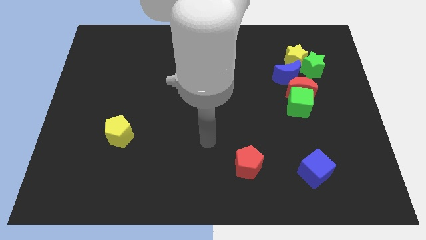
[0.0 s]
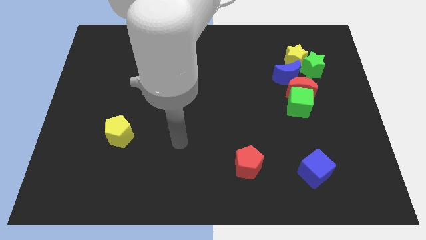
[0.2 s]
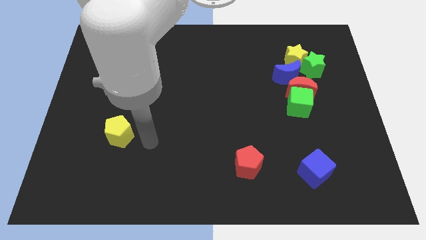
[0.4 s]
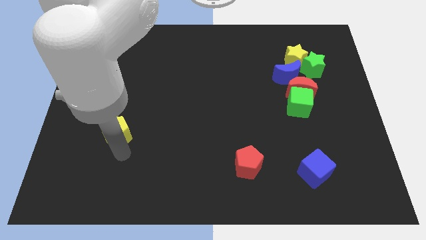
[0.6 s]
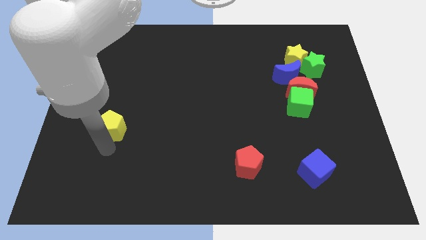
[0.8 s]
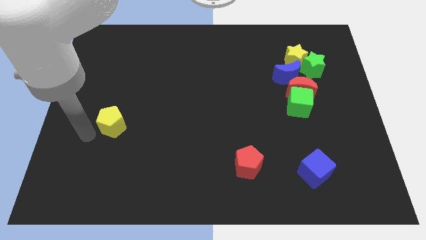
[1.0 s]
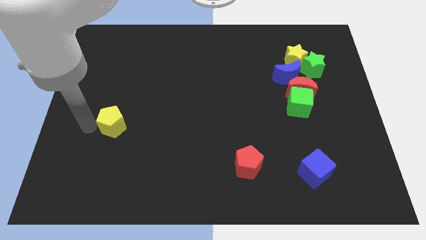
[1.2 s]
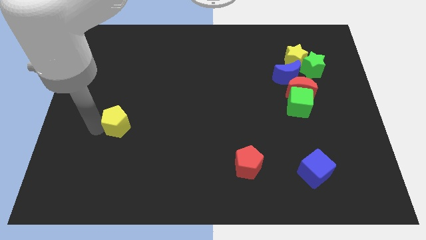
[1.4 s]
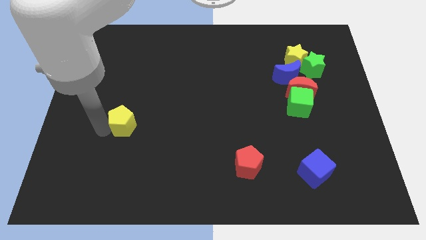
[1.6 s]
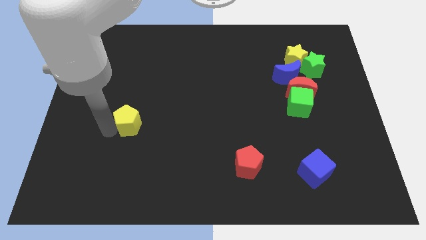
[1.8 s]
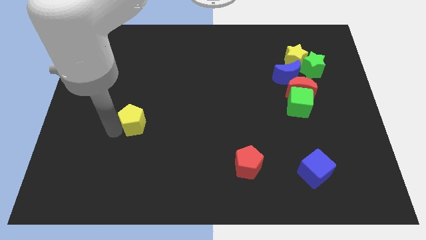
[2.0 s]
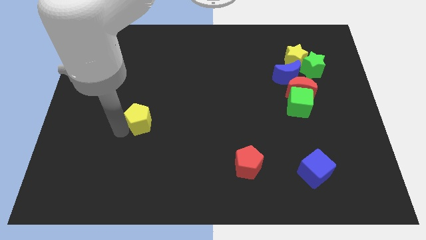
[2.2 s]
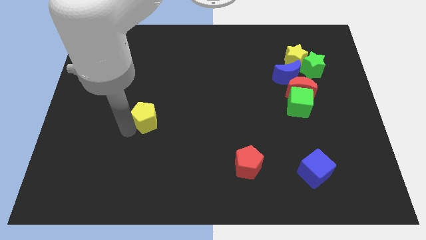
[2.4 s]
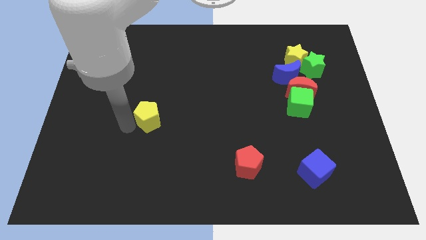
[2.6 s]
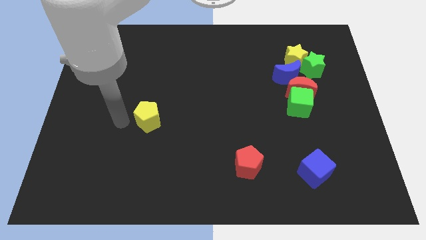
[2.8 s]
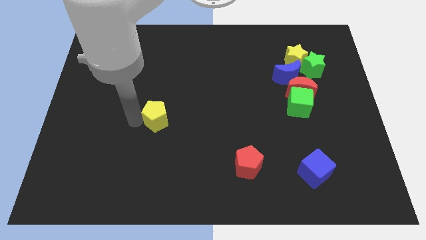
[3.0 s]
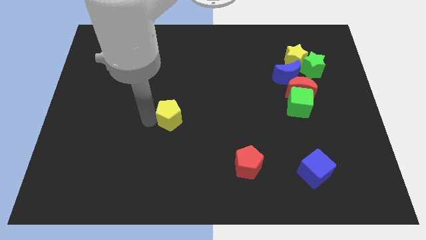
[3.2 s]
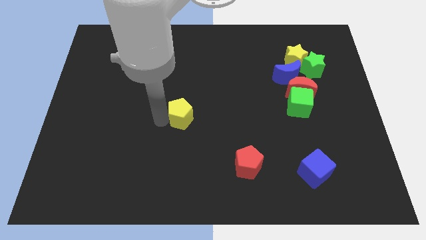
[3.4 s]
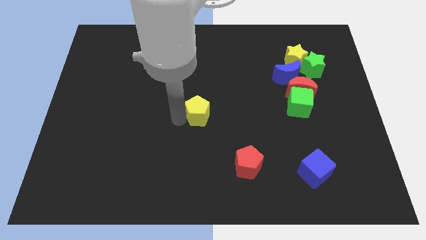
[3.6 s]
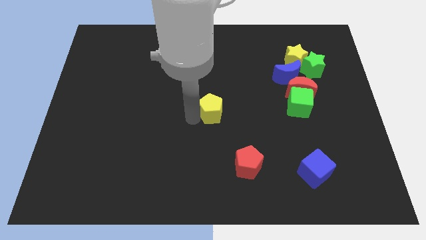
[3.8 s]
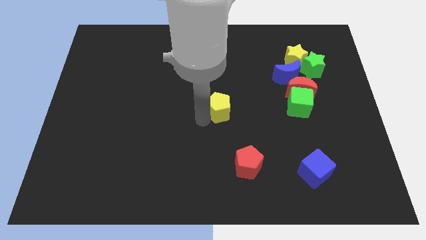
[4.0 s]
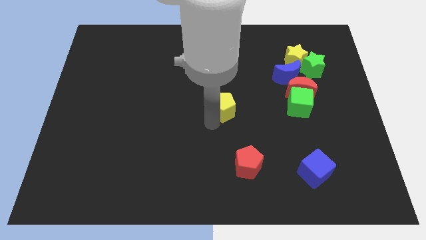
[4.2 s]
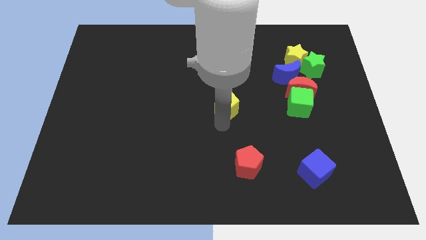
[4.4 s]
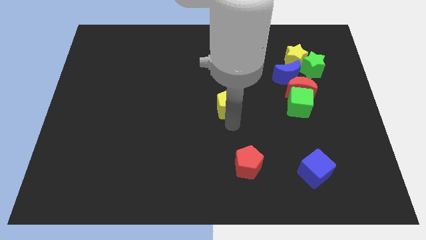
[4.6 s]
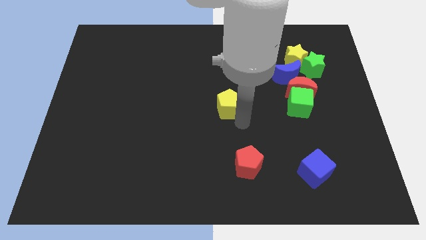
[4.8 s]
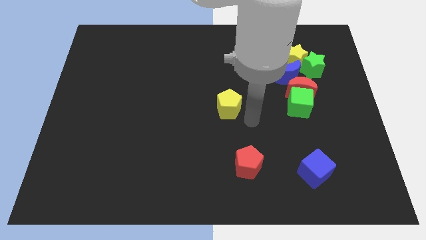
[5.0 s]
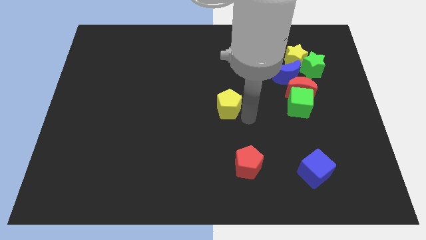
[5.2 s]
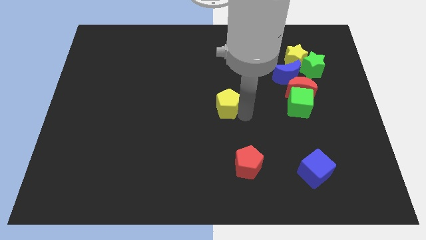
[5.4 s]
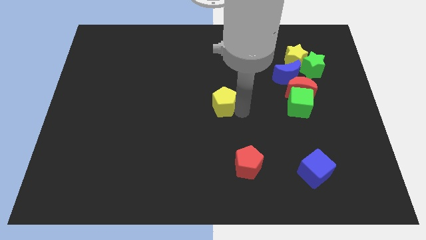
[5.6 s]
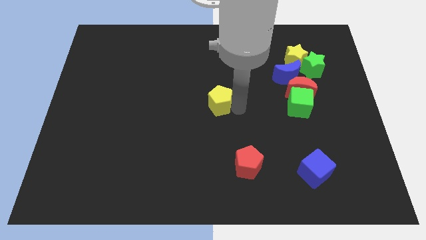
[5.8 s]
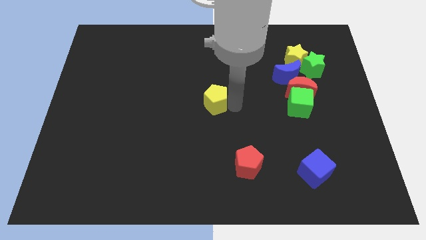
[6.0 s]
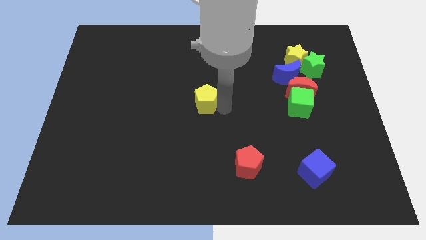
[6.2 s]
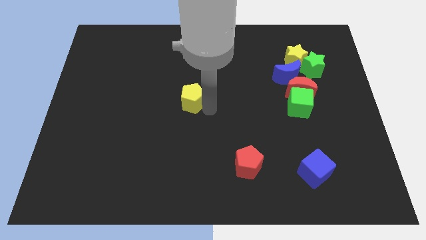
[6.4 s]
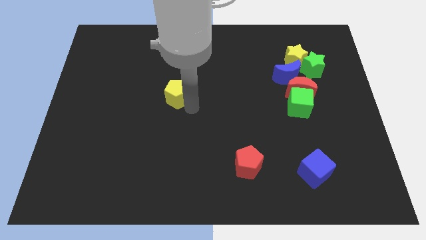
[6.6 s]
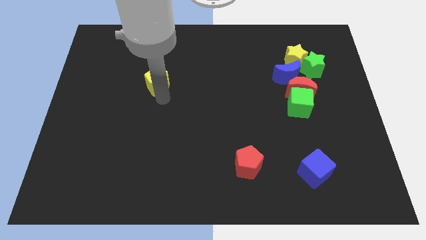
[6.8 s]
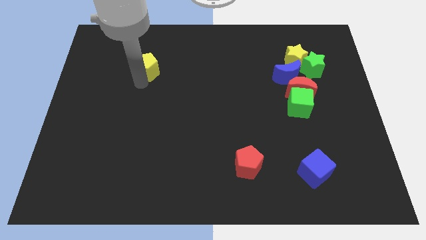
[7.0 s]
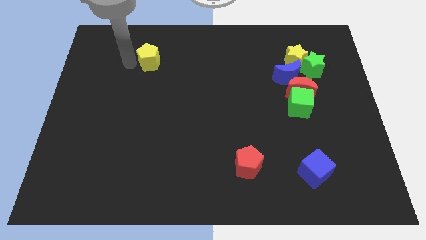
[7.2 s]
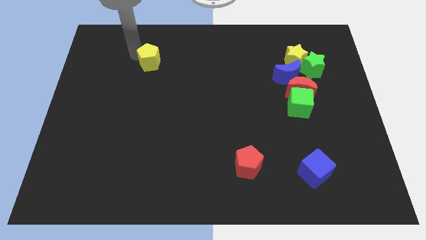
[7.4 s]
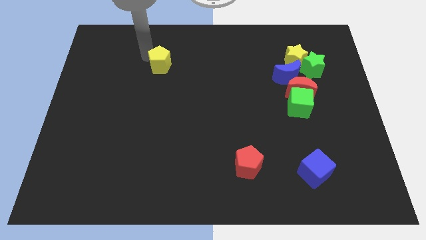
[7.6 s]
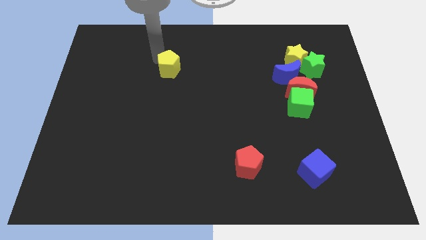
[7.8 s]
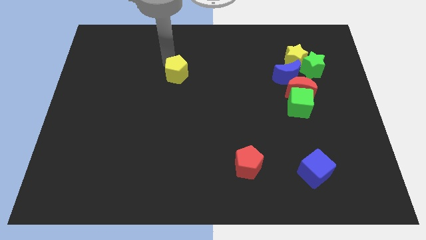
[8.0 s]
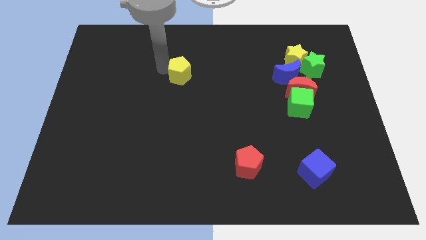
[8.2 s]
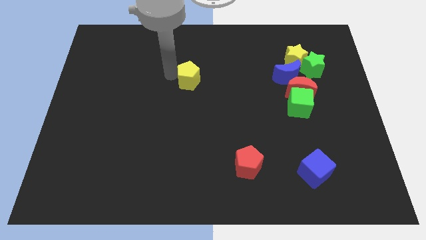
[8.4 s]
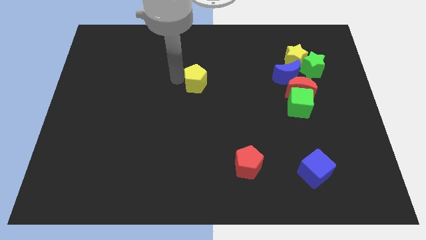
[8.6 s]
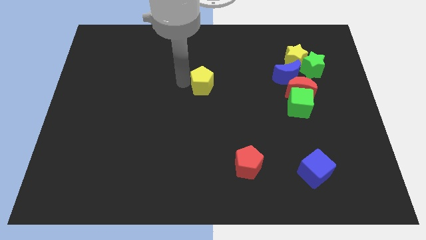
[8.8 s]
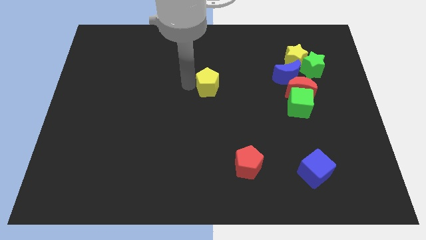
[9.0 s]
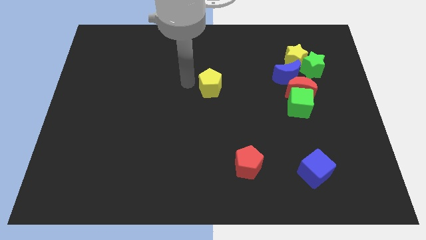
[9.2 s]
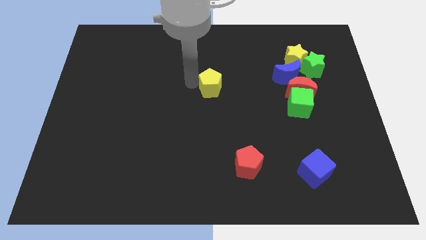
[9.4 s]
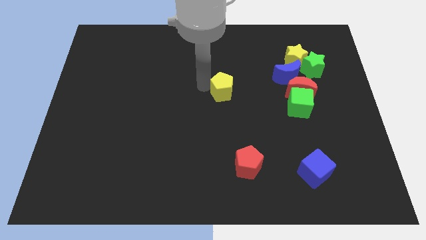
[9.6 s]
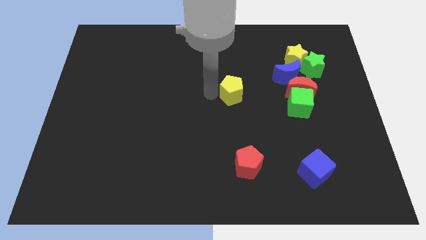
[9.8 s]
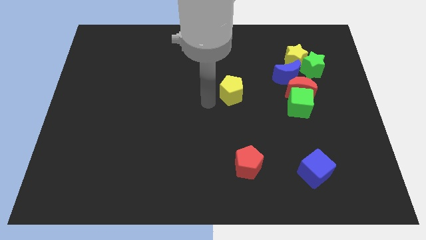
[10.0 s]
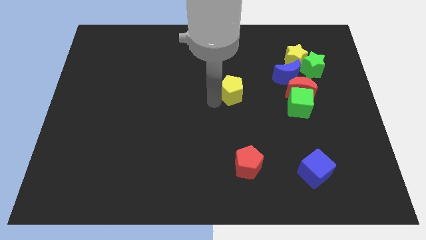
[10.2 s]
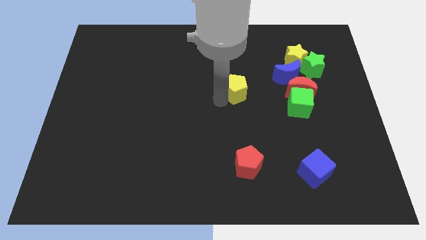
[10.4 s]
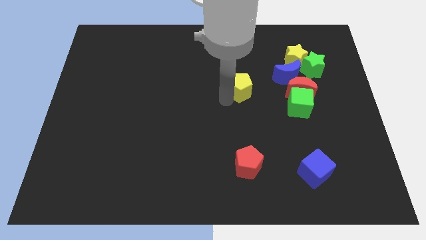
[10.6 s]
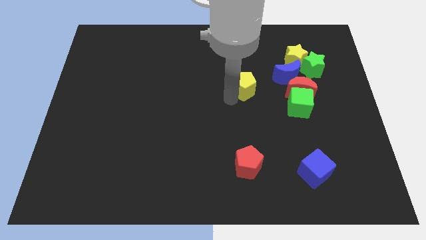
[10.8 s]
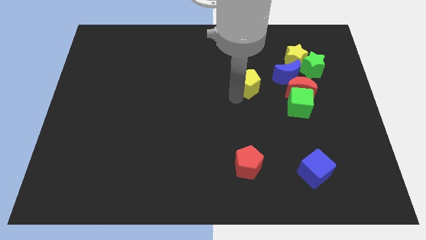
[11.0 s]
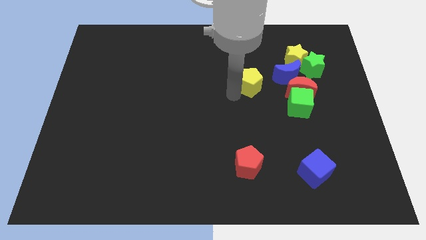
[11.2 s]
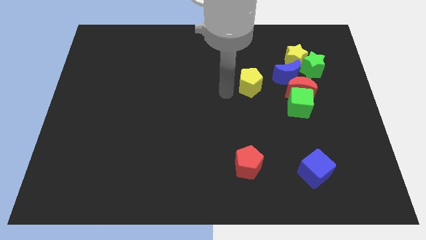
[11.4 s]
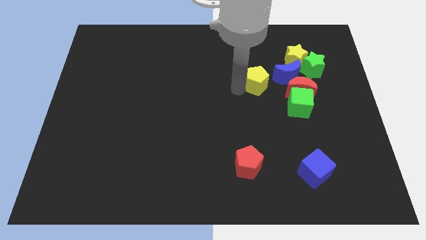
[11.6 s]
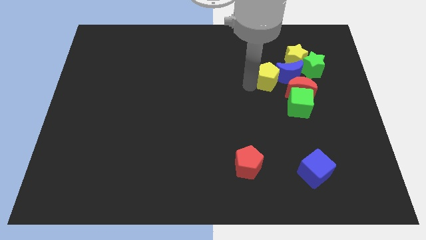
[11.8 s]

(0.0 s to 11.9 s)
move the yellow pentagon to the blue moon

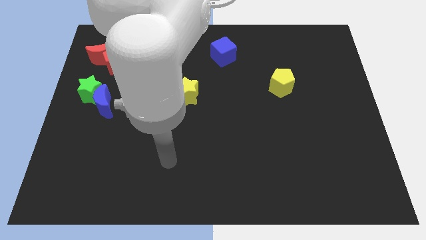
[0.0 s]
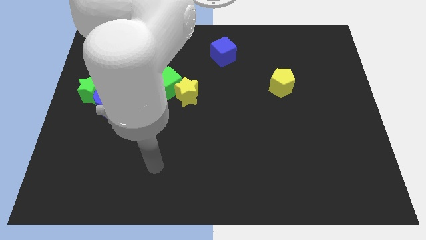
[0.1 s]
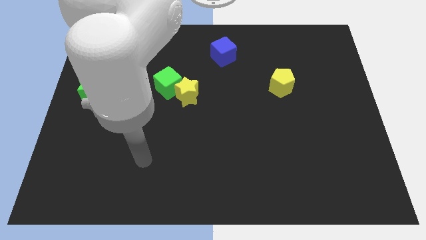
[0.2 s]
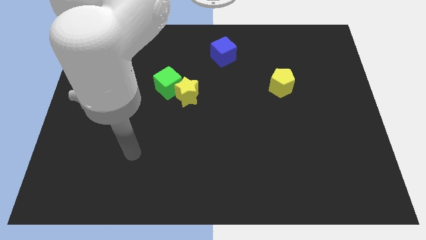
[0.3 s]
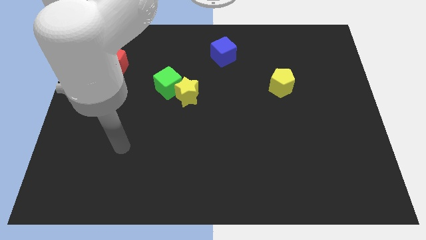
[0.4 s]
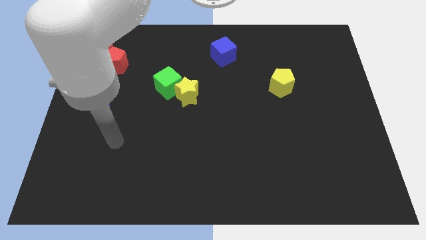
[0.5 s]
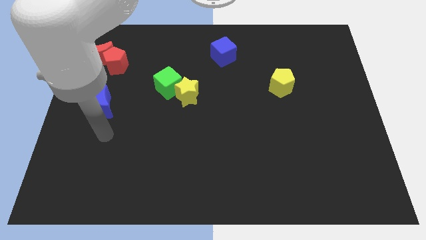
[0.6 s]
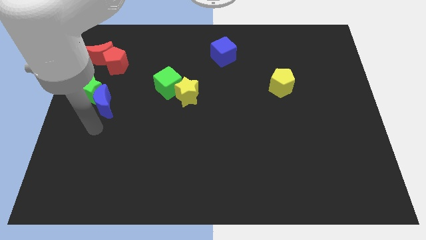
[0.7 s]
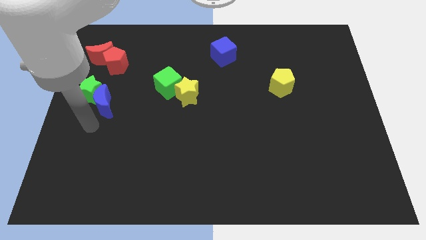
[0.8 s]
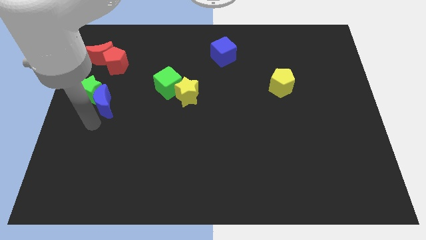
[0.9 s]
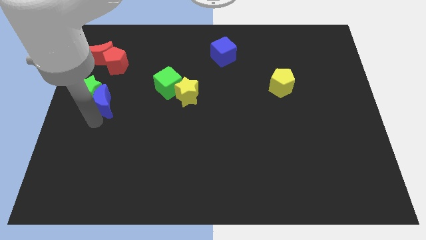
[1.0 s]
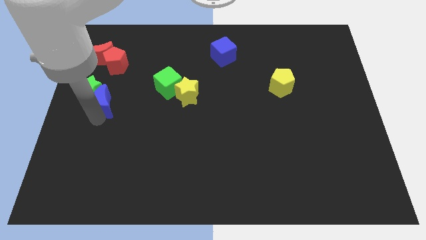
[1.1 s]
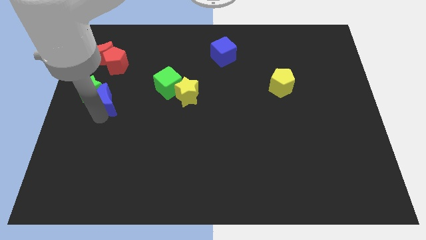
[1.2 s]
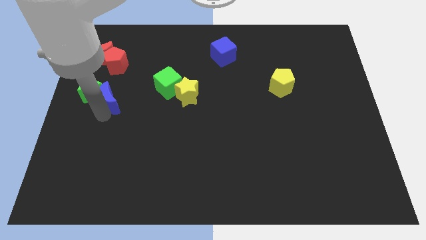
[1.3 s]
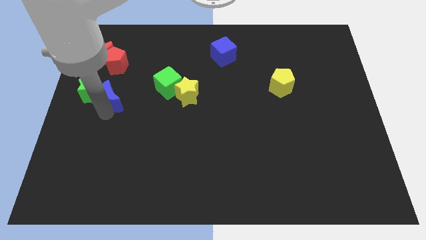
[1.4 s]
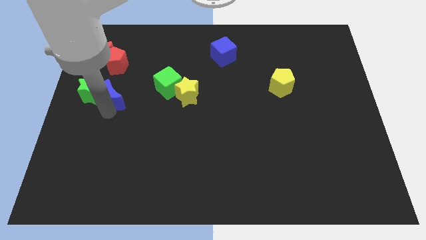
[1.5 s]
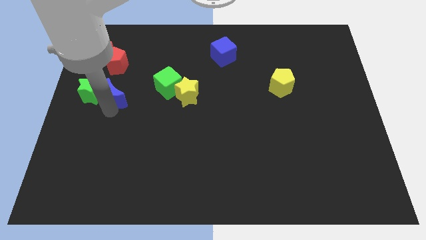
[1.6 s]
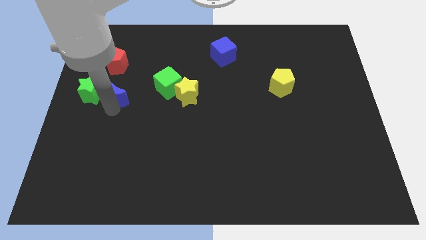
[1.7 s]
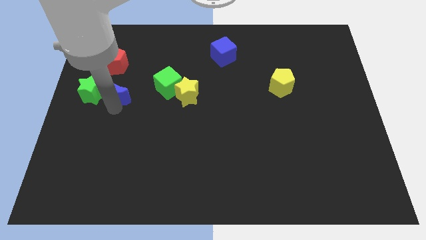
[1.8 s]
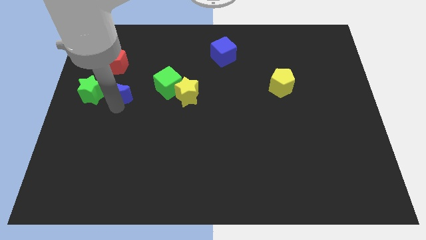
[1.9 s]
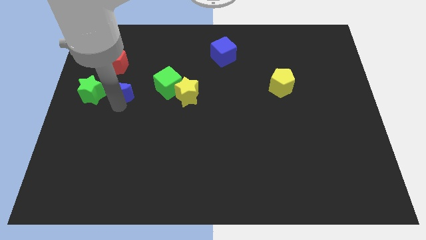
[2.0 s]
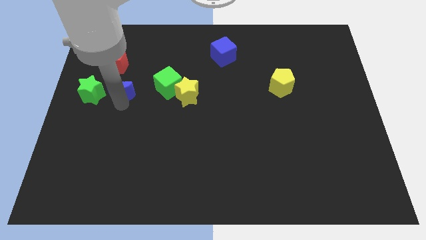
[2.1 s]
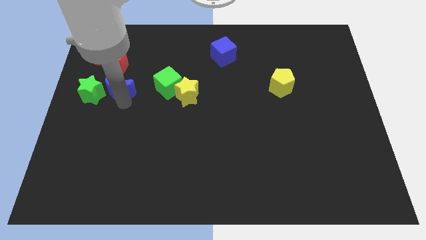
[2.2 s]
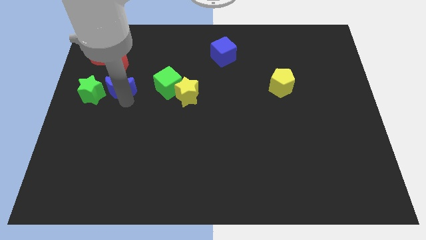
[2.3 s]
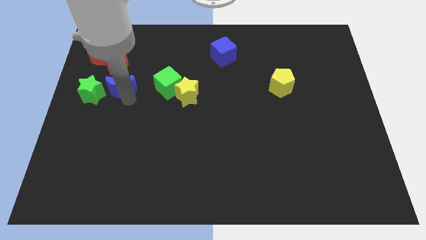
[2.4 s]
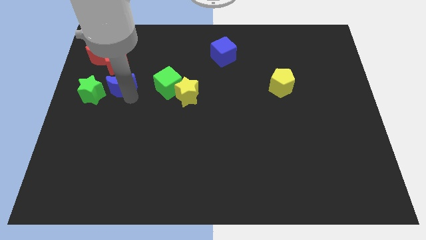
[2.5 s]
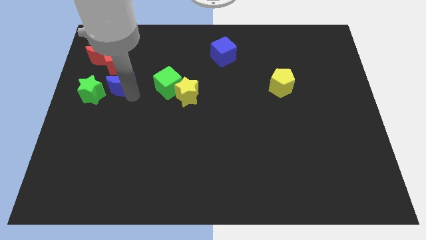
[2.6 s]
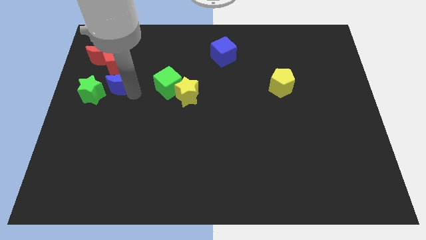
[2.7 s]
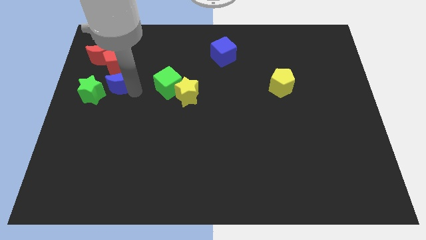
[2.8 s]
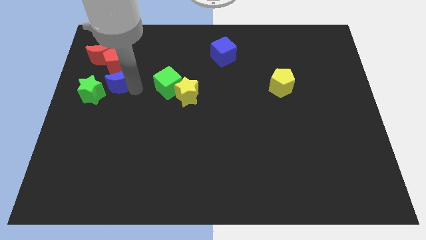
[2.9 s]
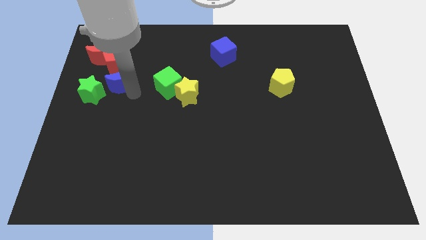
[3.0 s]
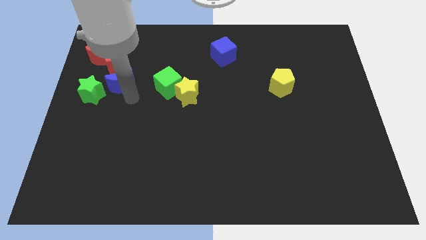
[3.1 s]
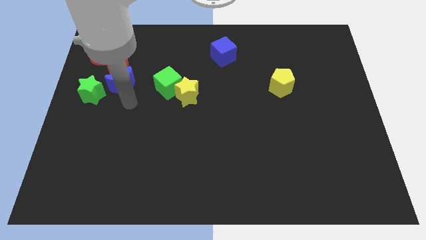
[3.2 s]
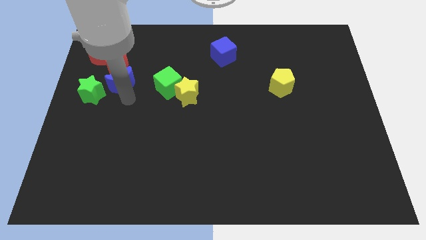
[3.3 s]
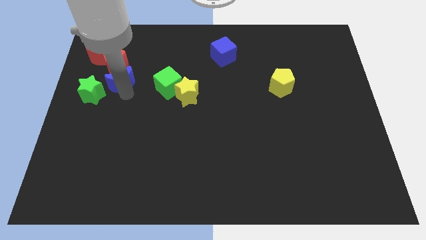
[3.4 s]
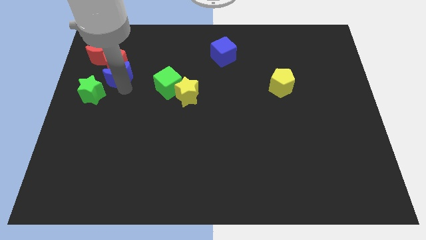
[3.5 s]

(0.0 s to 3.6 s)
move the blue moon to the red pentagon
